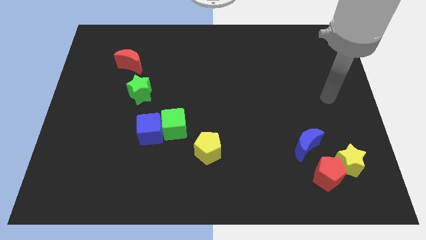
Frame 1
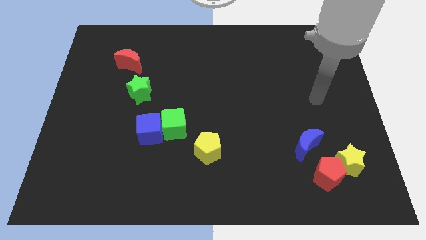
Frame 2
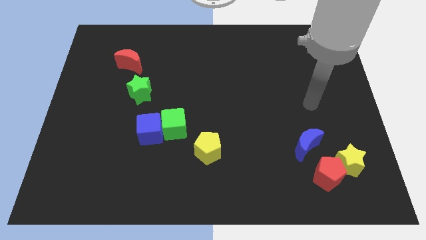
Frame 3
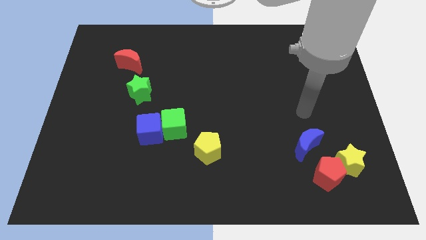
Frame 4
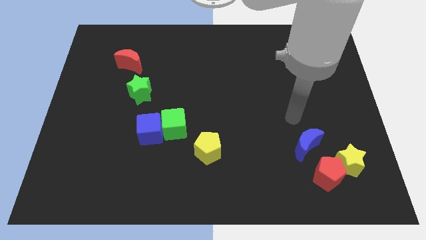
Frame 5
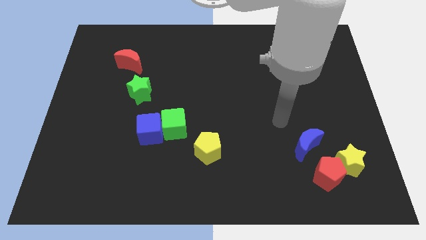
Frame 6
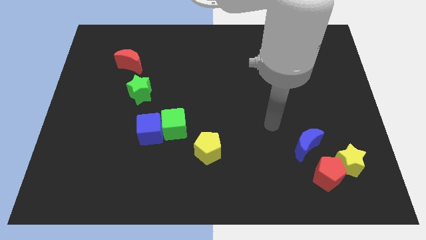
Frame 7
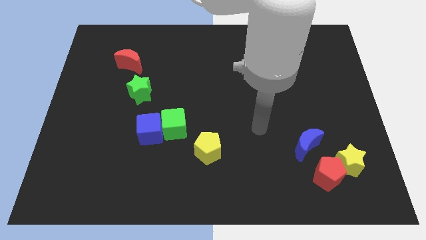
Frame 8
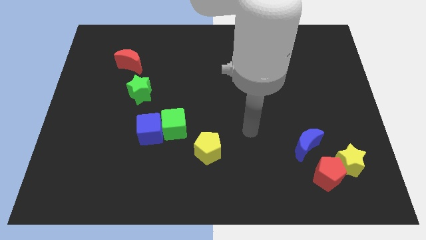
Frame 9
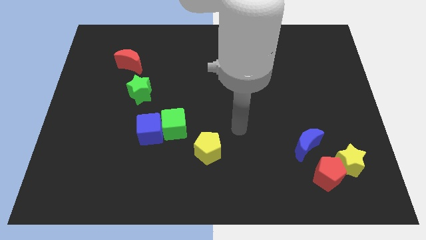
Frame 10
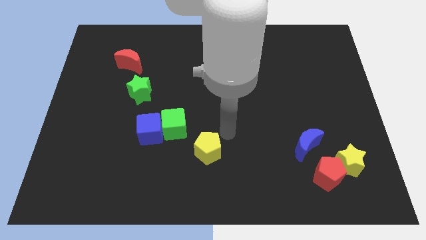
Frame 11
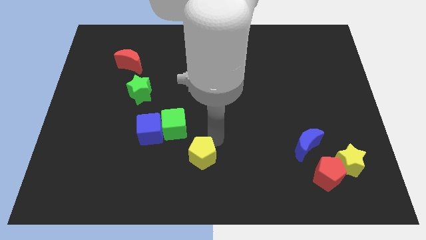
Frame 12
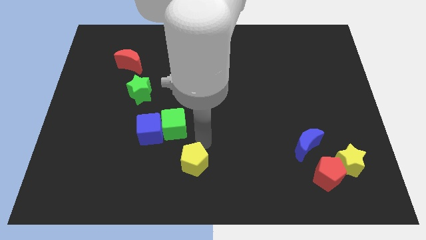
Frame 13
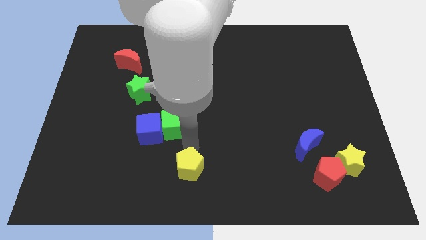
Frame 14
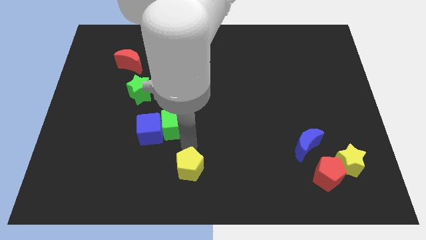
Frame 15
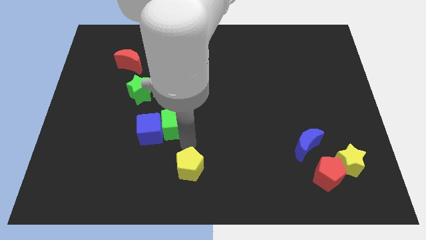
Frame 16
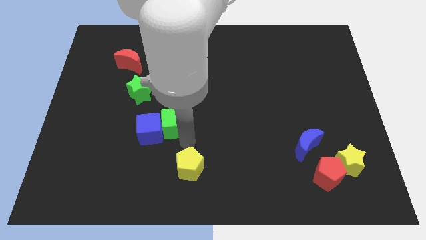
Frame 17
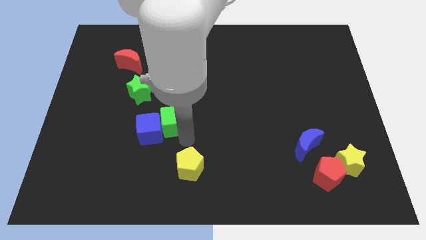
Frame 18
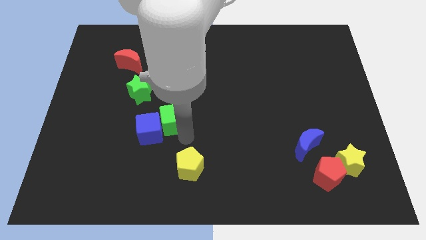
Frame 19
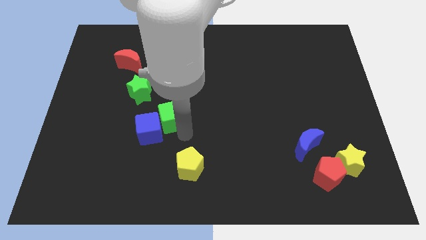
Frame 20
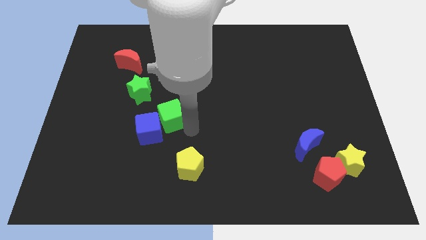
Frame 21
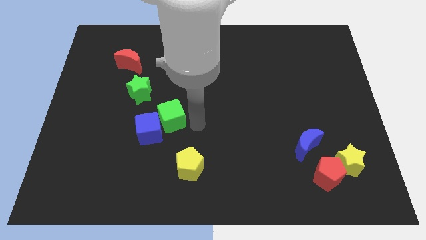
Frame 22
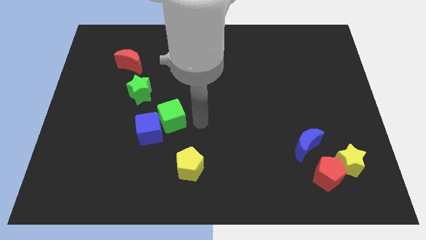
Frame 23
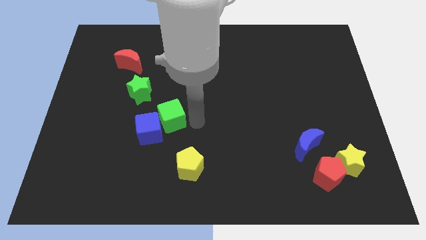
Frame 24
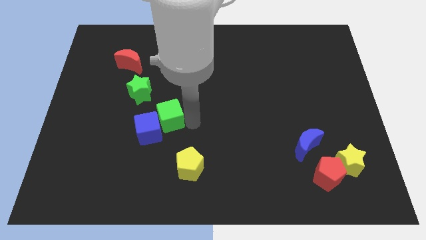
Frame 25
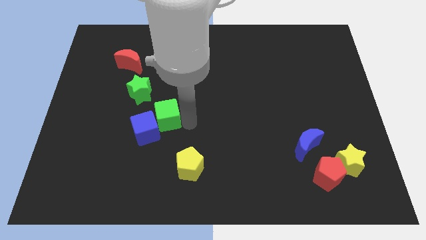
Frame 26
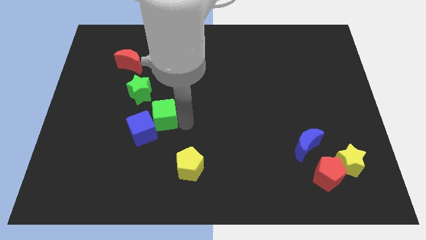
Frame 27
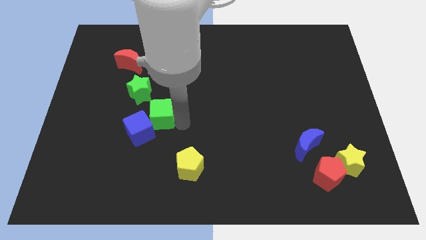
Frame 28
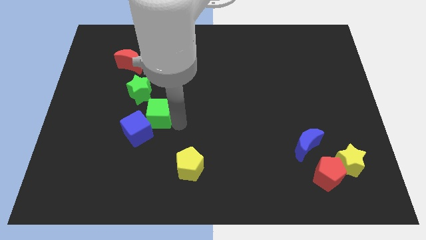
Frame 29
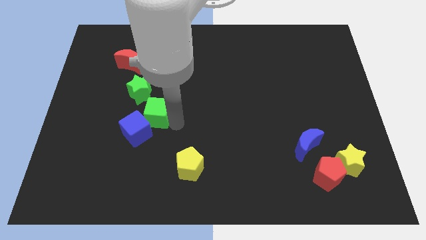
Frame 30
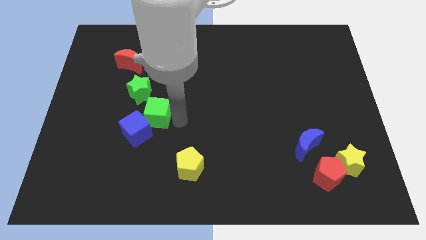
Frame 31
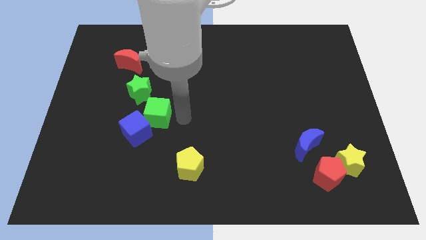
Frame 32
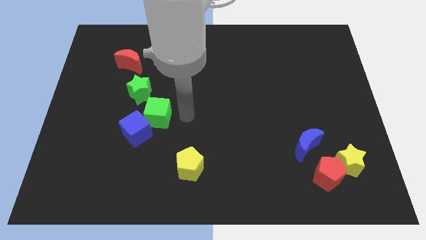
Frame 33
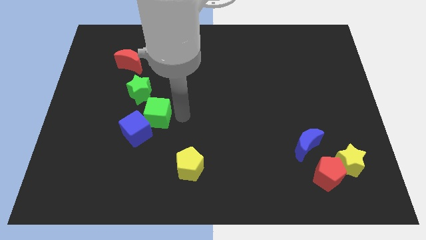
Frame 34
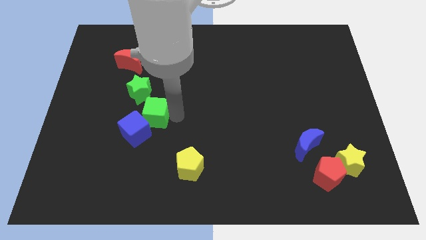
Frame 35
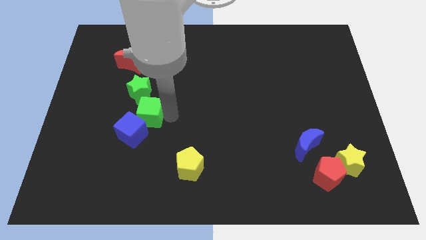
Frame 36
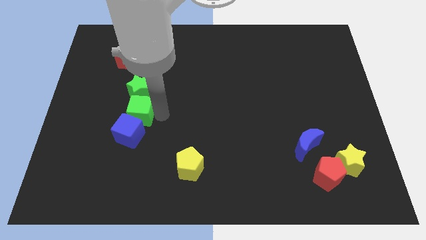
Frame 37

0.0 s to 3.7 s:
push the green cube left a little

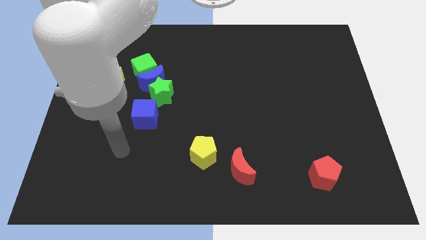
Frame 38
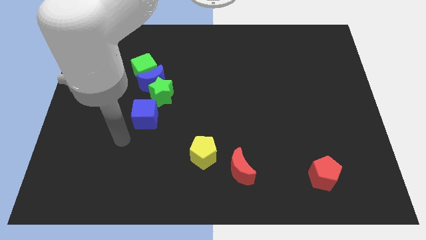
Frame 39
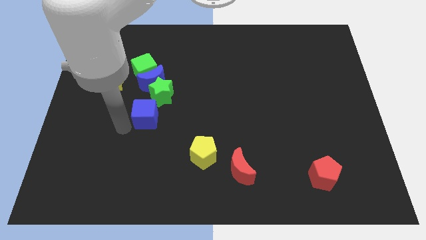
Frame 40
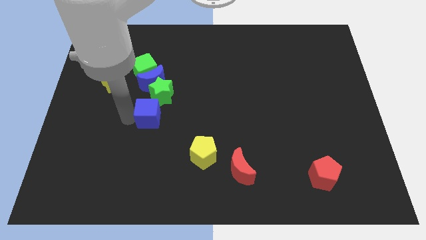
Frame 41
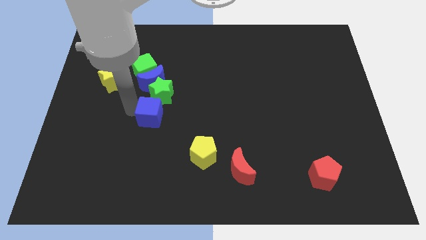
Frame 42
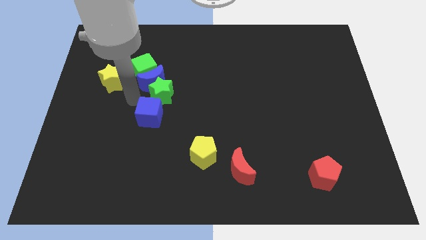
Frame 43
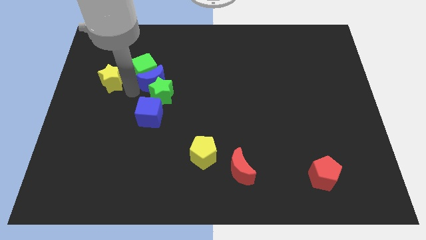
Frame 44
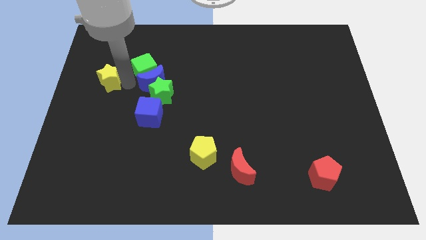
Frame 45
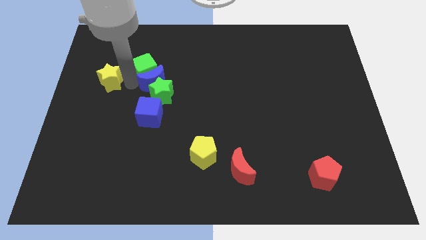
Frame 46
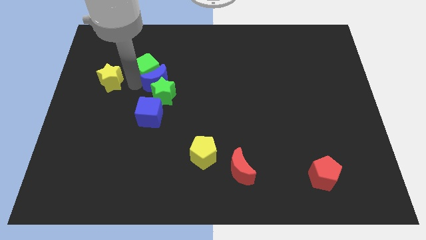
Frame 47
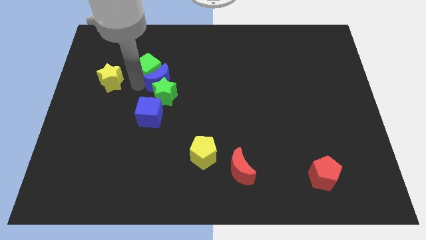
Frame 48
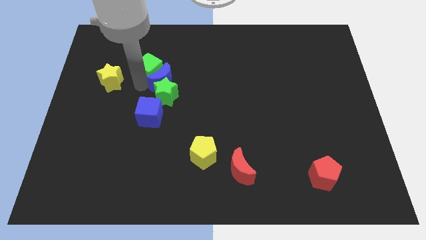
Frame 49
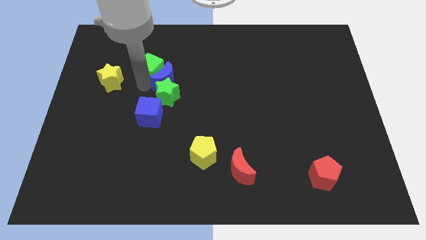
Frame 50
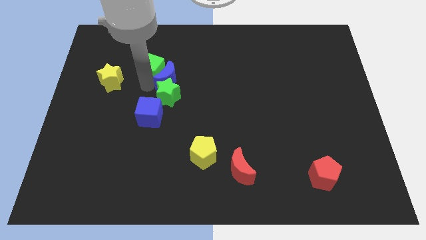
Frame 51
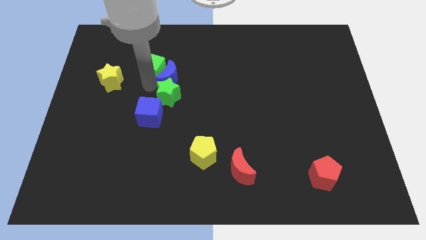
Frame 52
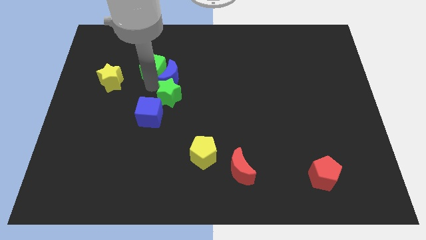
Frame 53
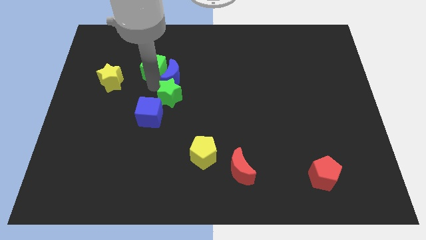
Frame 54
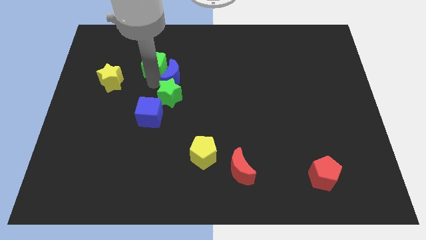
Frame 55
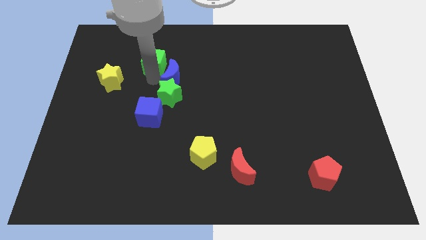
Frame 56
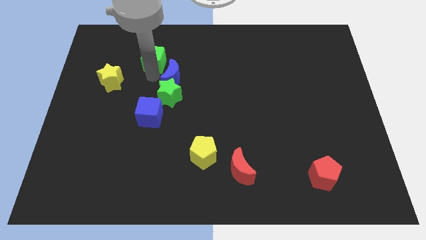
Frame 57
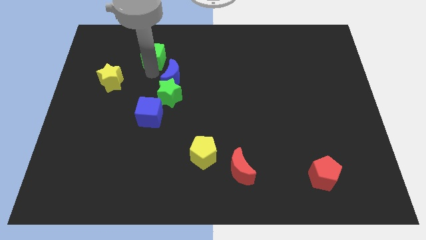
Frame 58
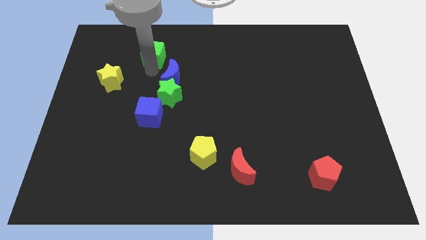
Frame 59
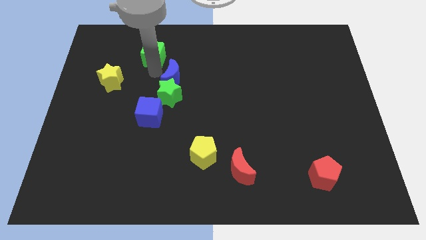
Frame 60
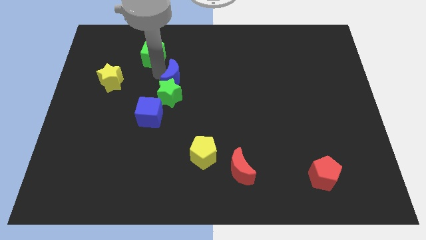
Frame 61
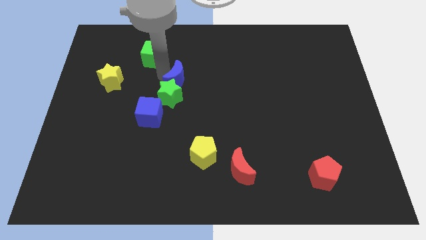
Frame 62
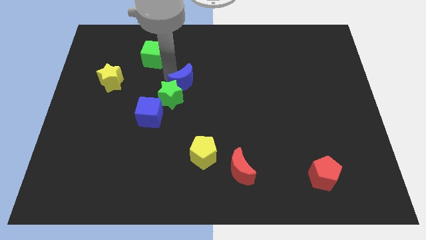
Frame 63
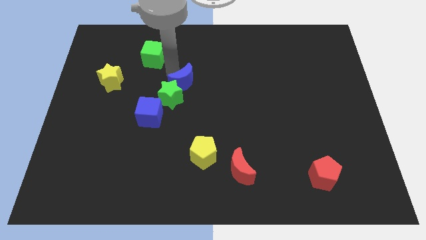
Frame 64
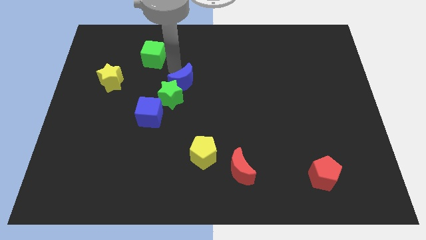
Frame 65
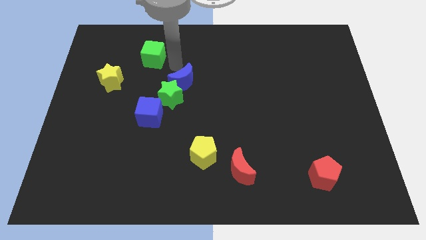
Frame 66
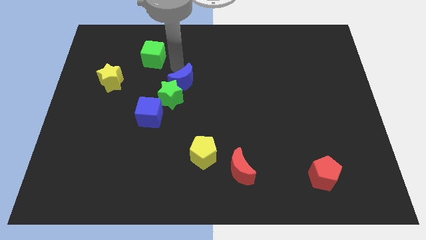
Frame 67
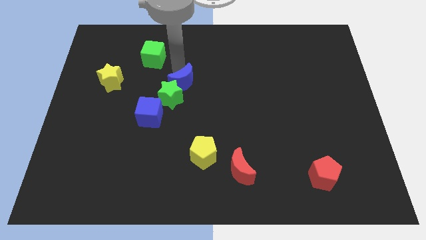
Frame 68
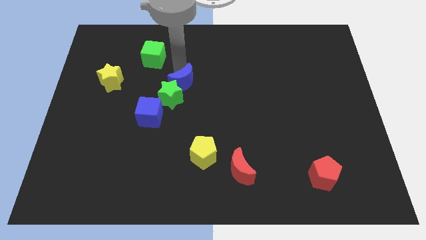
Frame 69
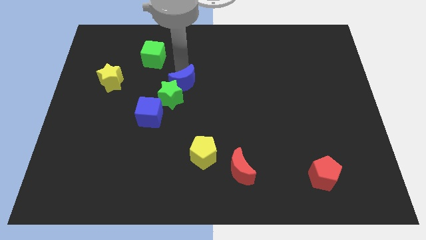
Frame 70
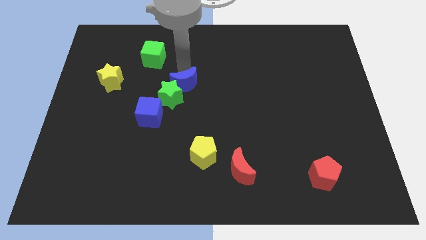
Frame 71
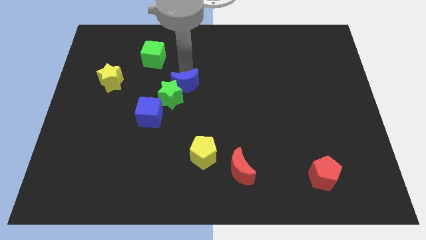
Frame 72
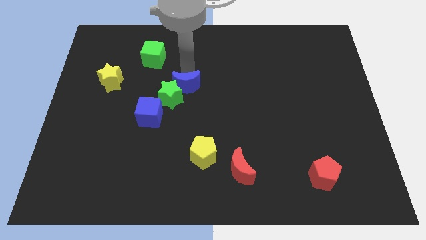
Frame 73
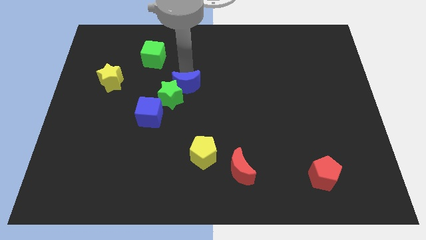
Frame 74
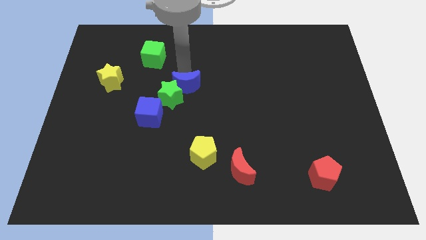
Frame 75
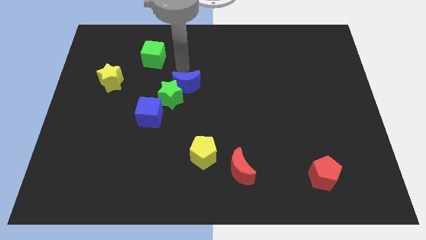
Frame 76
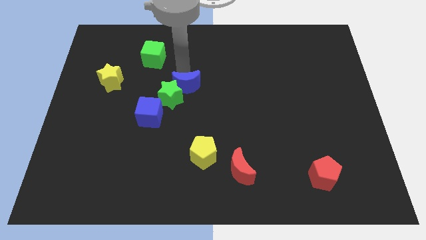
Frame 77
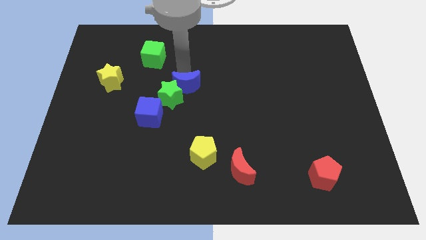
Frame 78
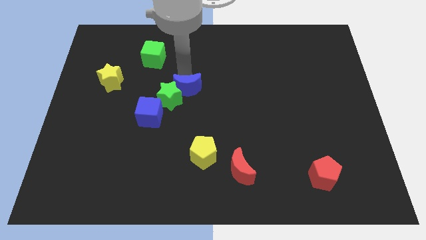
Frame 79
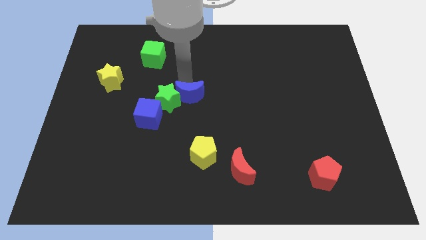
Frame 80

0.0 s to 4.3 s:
push the blue moon somewhat down and to the right diagonally

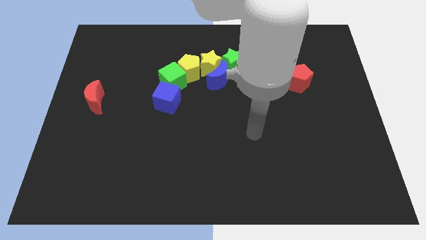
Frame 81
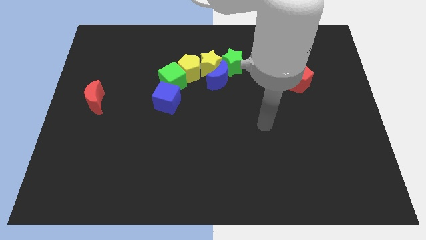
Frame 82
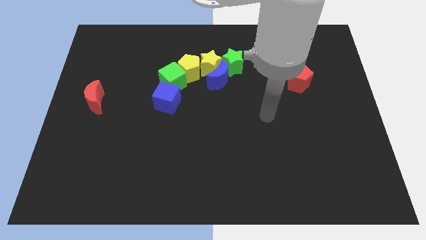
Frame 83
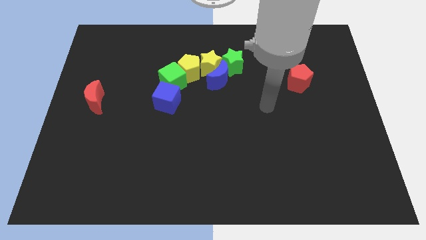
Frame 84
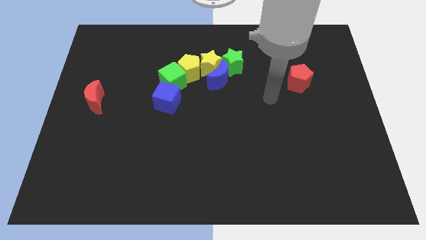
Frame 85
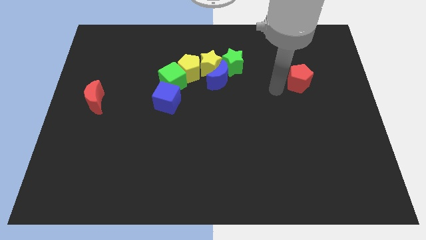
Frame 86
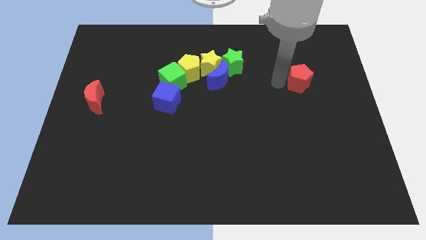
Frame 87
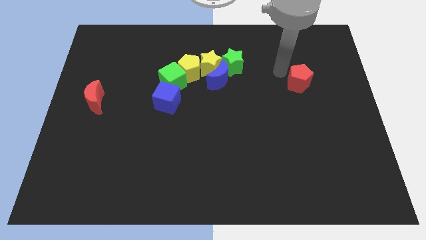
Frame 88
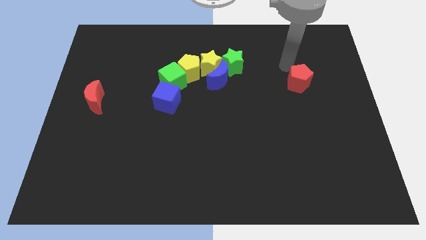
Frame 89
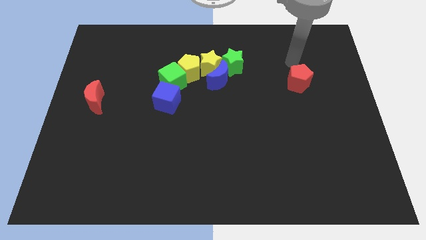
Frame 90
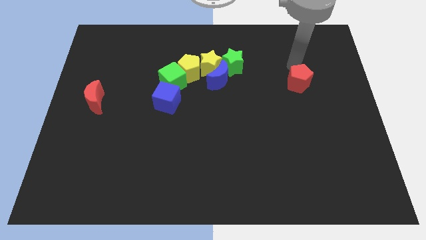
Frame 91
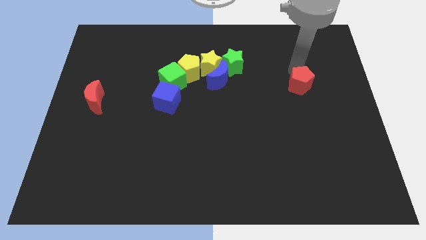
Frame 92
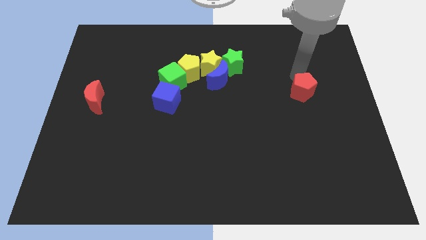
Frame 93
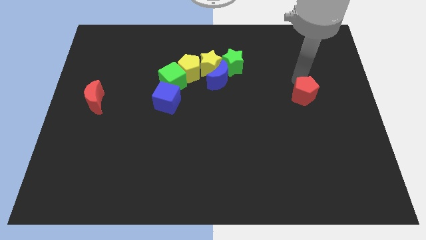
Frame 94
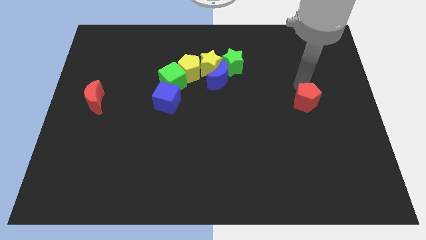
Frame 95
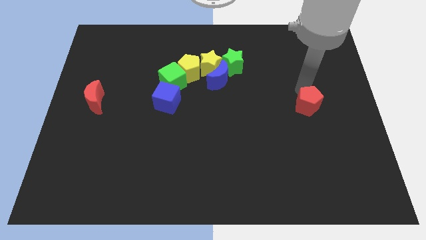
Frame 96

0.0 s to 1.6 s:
slightly move the red pentagon down
